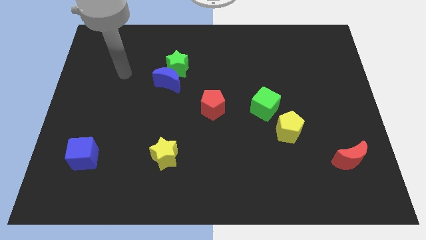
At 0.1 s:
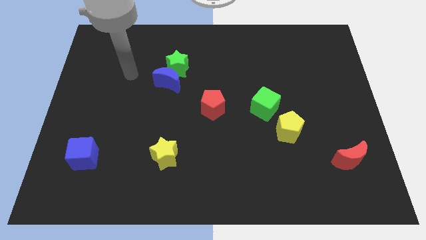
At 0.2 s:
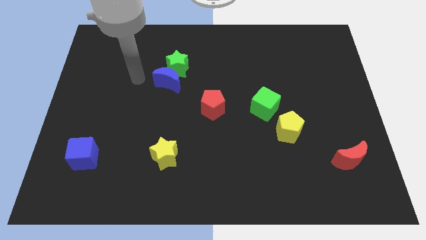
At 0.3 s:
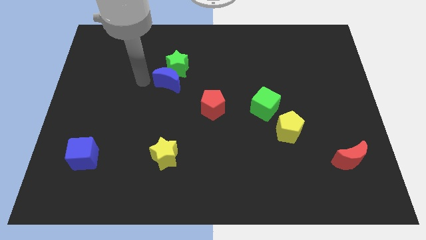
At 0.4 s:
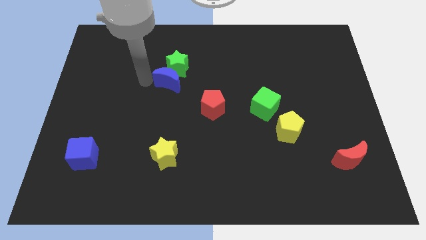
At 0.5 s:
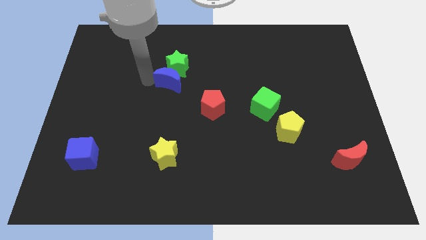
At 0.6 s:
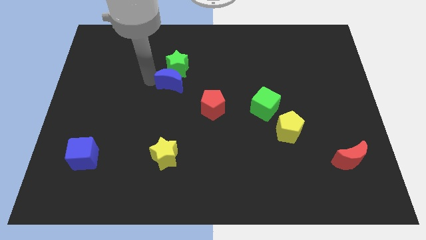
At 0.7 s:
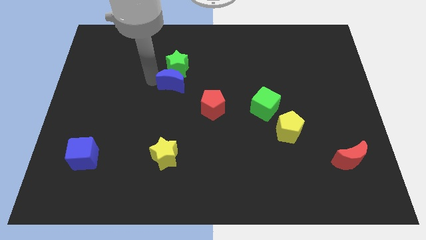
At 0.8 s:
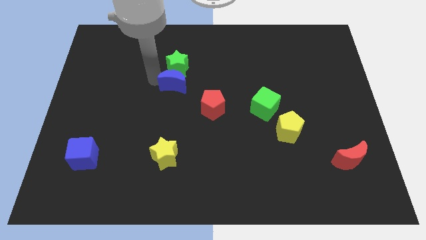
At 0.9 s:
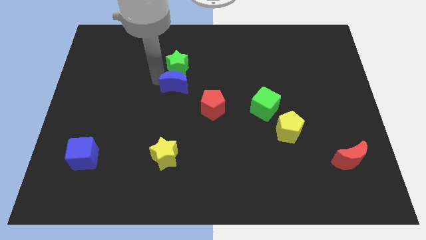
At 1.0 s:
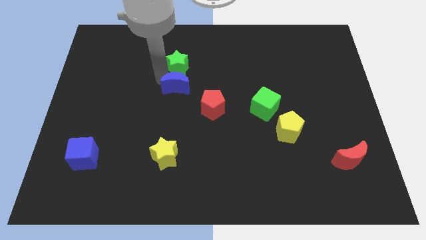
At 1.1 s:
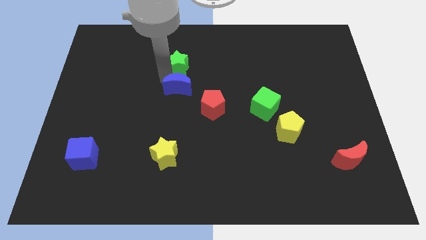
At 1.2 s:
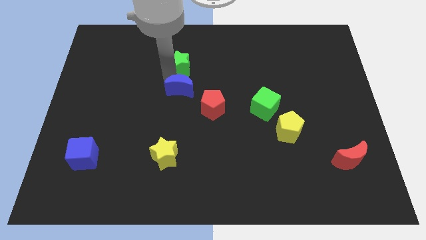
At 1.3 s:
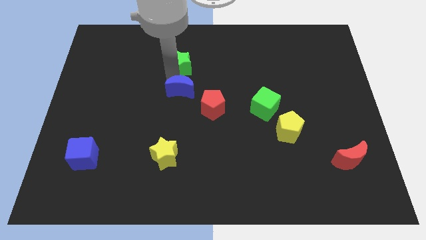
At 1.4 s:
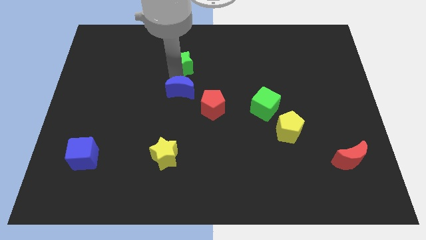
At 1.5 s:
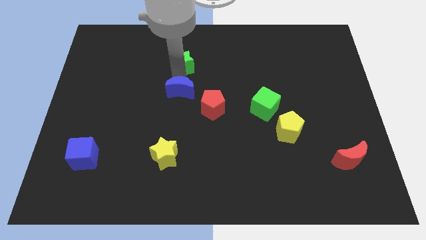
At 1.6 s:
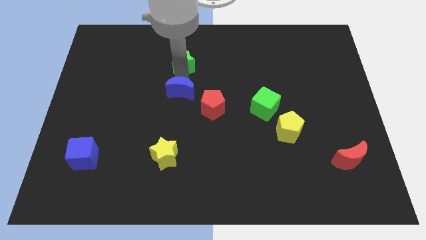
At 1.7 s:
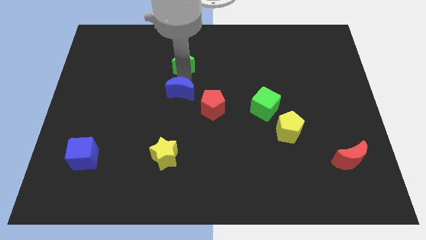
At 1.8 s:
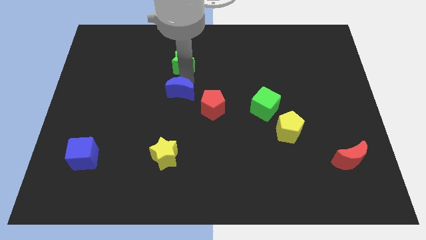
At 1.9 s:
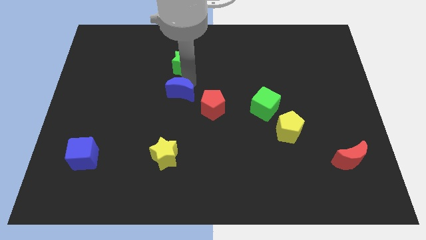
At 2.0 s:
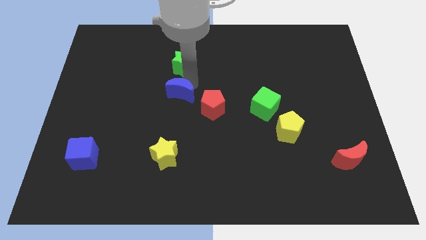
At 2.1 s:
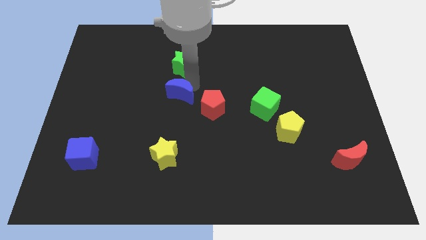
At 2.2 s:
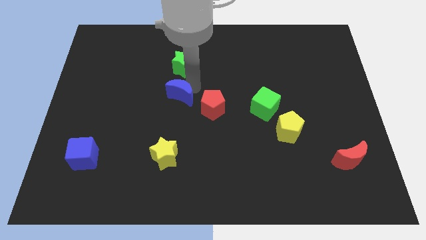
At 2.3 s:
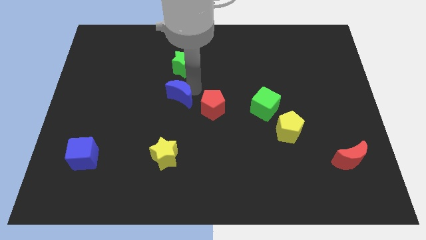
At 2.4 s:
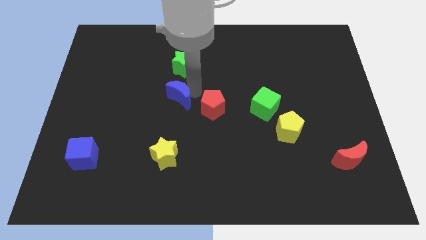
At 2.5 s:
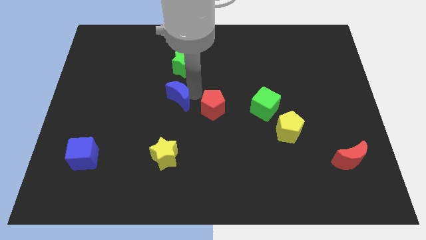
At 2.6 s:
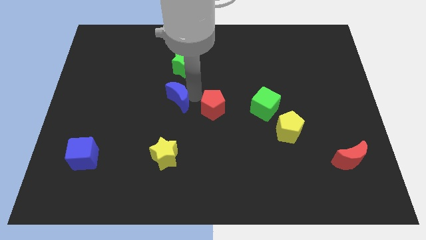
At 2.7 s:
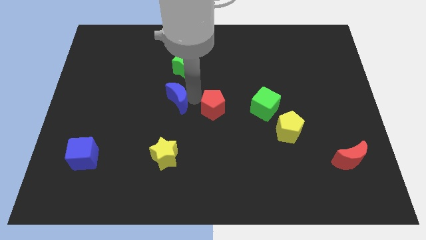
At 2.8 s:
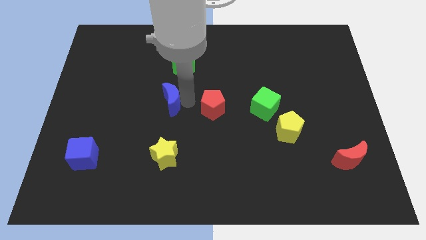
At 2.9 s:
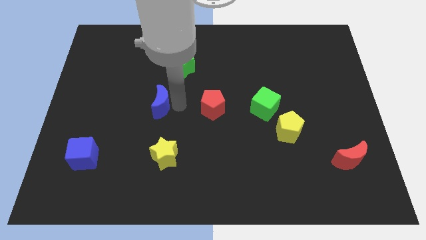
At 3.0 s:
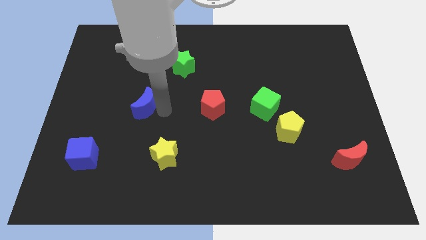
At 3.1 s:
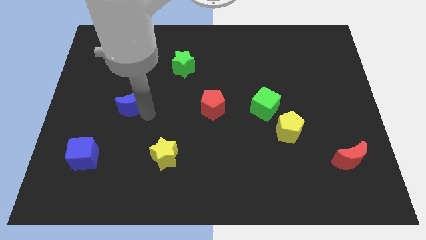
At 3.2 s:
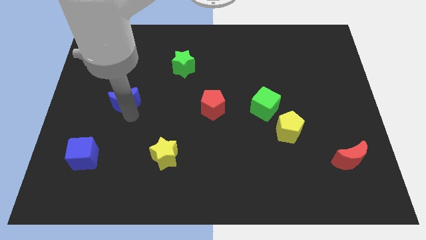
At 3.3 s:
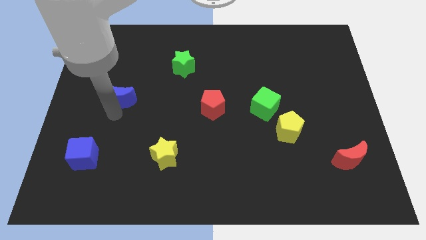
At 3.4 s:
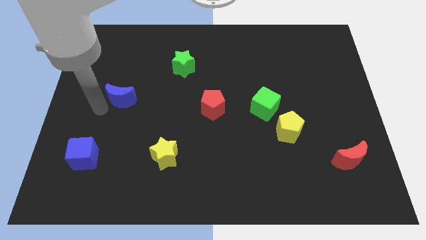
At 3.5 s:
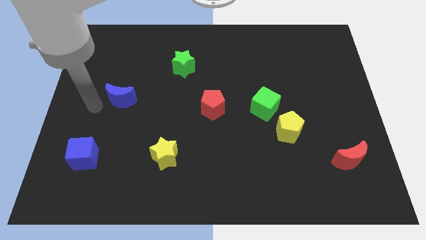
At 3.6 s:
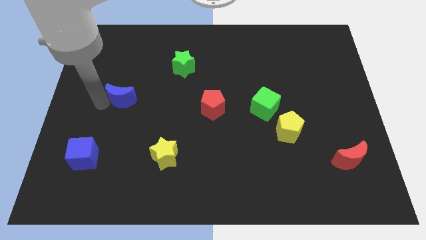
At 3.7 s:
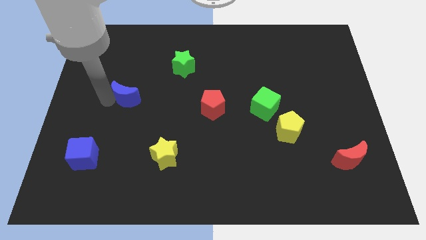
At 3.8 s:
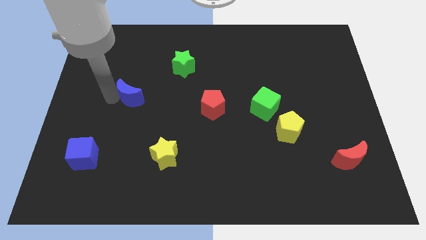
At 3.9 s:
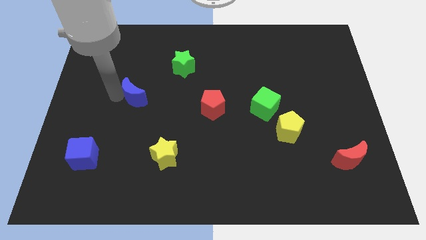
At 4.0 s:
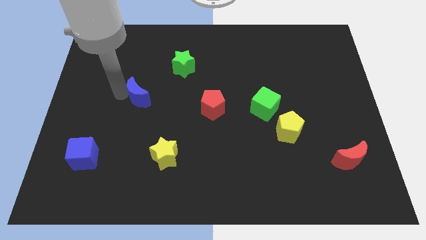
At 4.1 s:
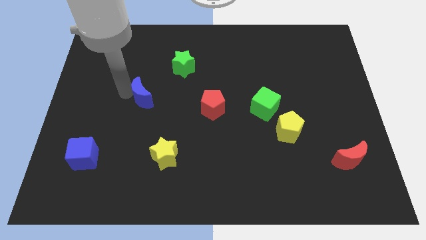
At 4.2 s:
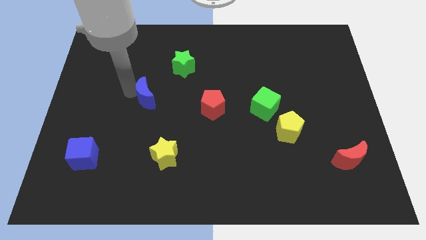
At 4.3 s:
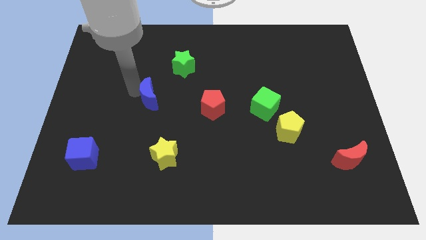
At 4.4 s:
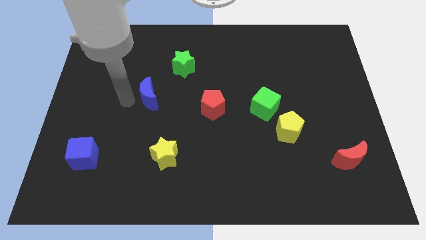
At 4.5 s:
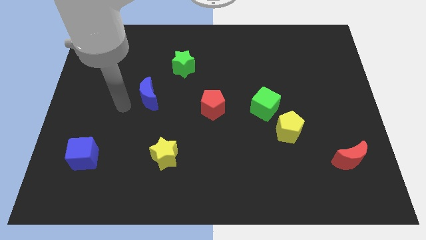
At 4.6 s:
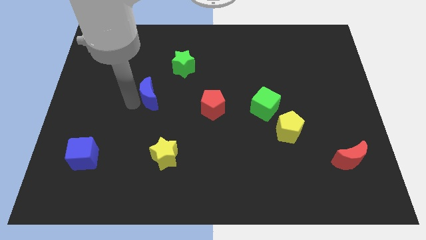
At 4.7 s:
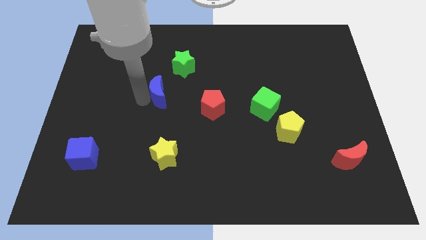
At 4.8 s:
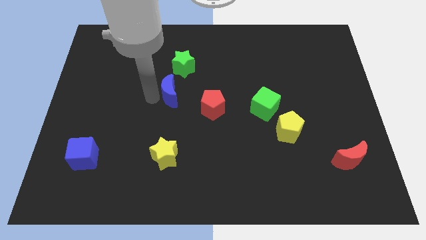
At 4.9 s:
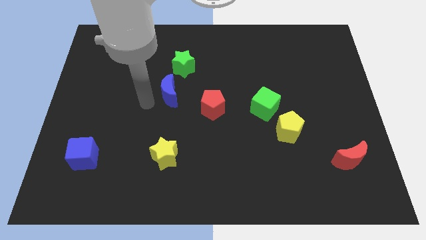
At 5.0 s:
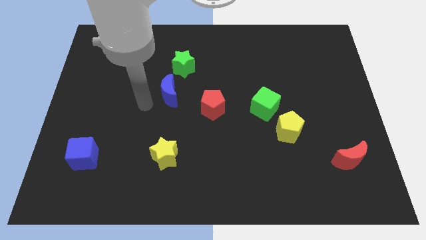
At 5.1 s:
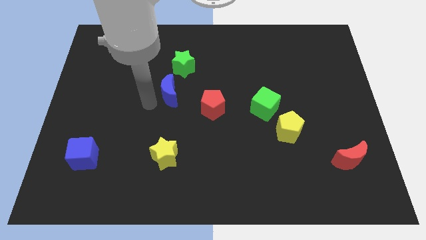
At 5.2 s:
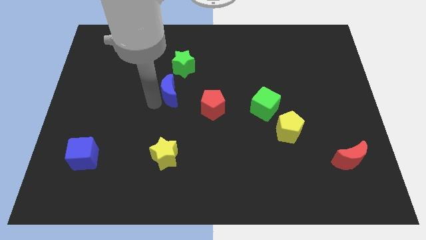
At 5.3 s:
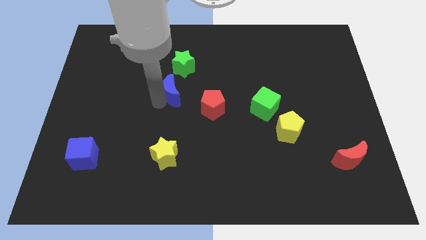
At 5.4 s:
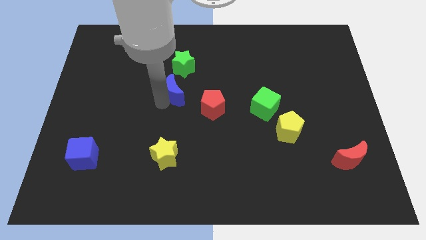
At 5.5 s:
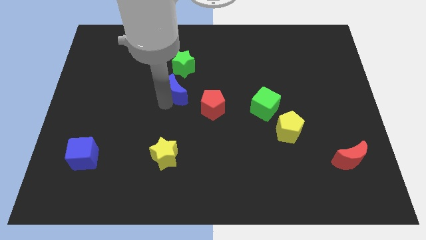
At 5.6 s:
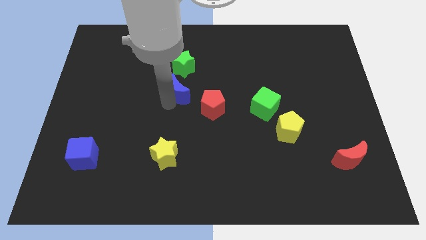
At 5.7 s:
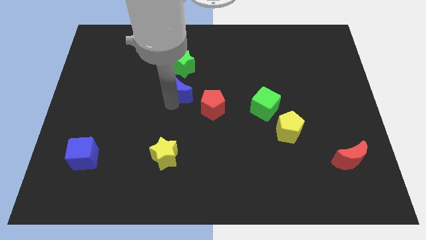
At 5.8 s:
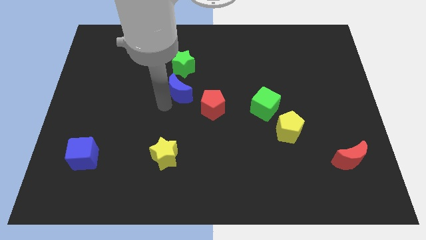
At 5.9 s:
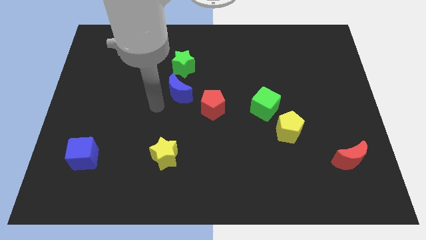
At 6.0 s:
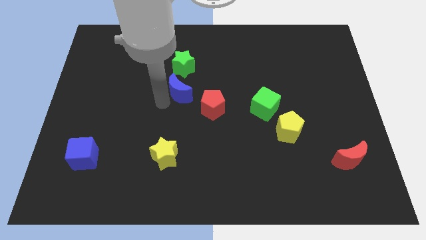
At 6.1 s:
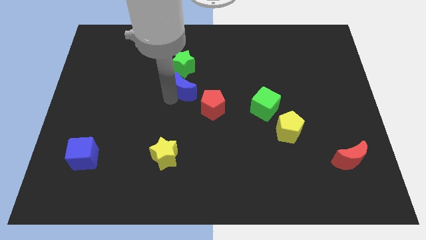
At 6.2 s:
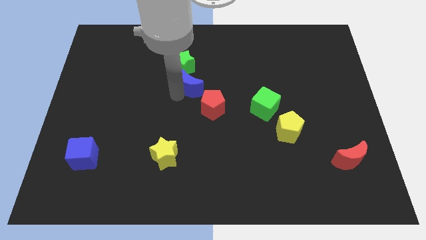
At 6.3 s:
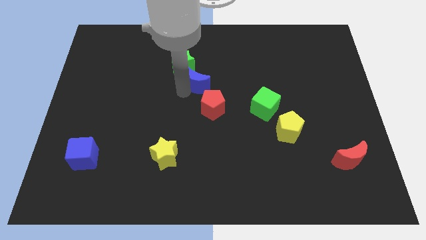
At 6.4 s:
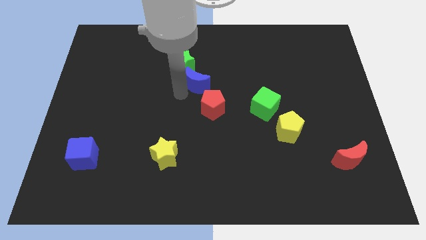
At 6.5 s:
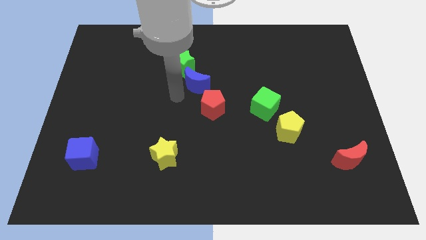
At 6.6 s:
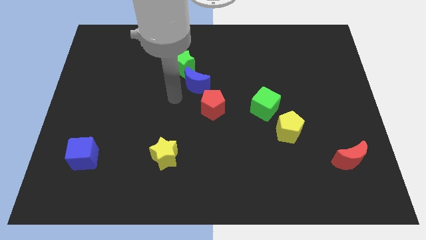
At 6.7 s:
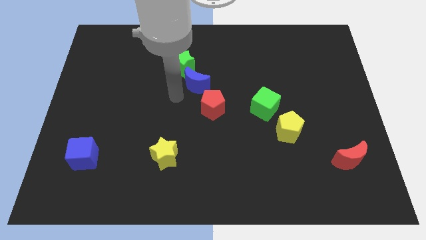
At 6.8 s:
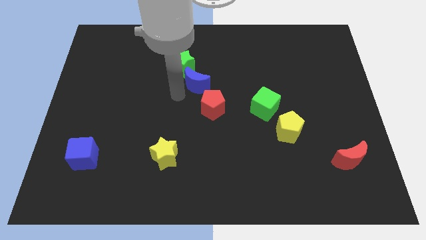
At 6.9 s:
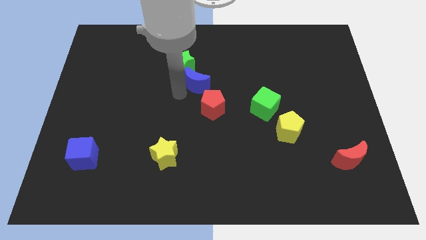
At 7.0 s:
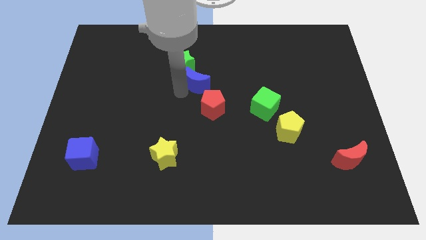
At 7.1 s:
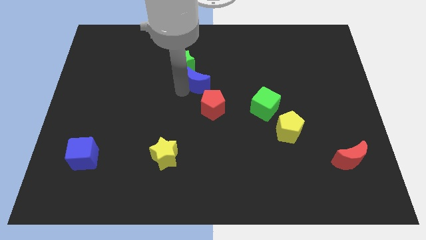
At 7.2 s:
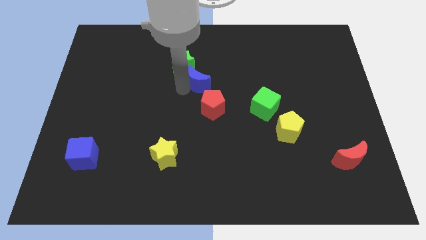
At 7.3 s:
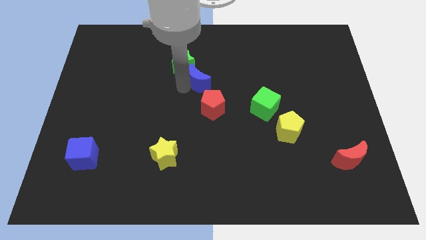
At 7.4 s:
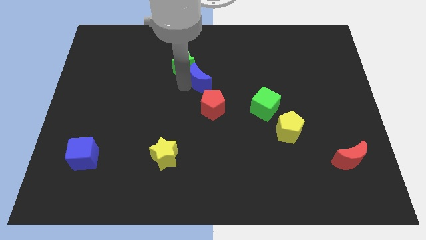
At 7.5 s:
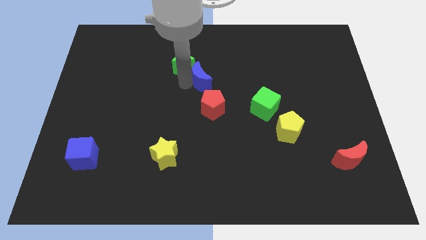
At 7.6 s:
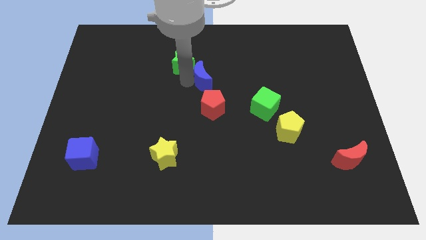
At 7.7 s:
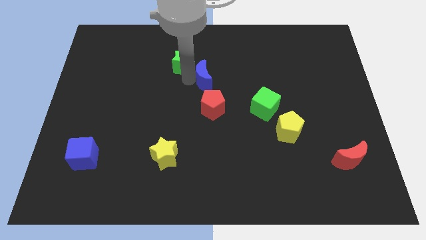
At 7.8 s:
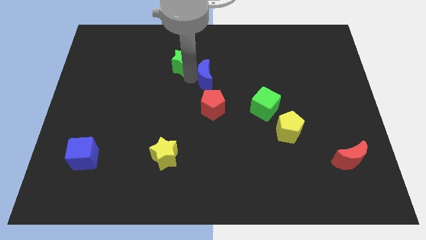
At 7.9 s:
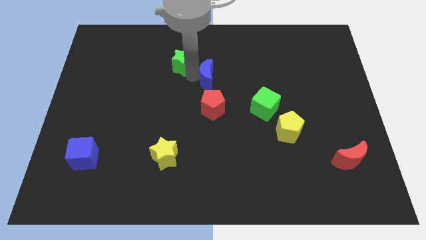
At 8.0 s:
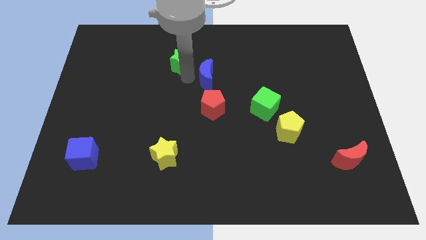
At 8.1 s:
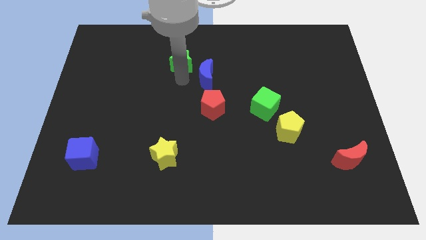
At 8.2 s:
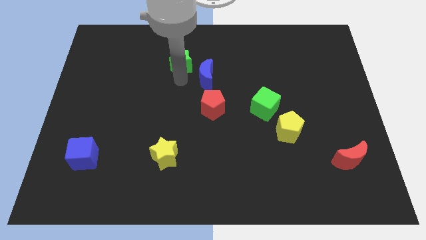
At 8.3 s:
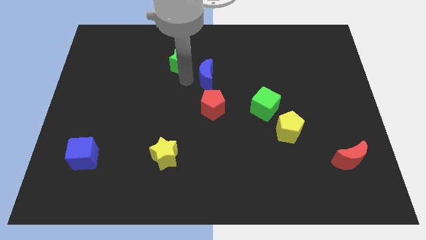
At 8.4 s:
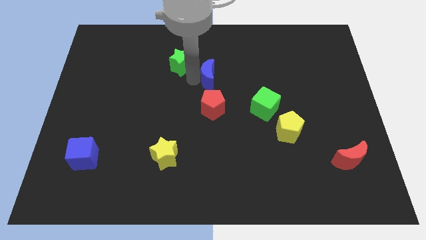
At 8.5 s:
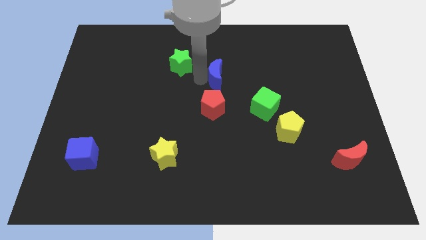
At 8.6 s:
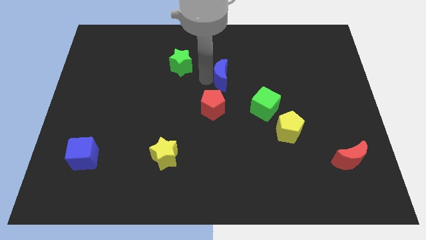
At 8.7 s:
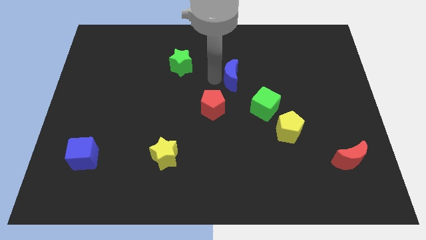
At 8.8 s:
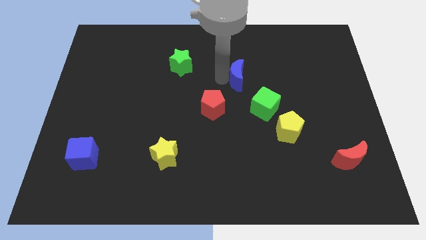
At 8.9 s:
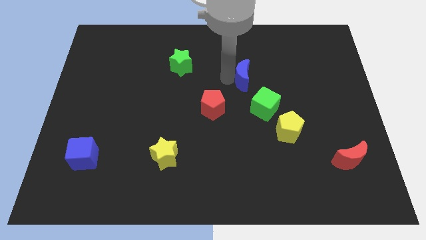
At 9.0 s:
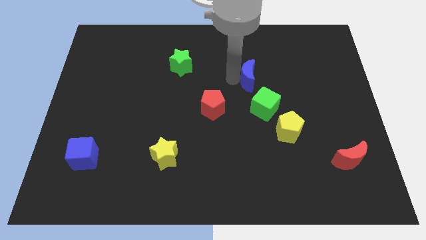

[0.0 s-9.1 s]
move the blue moon to the right
